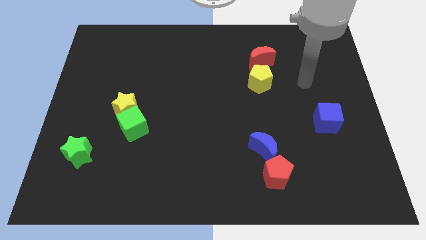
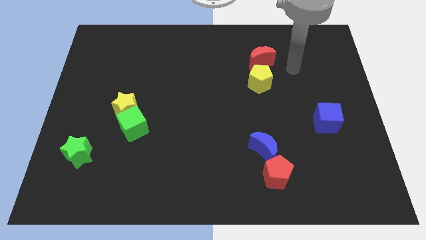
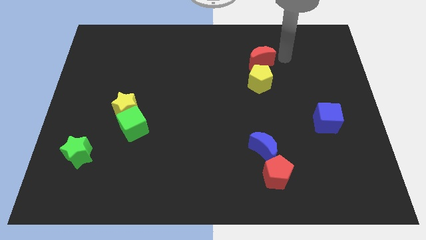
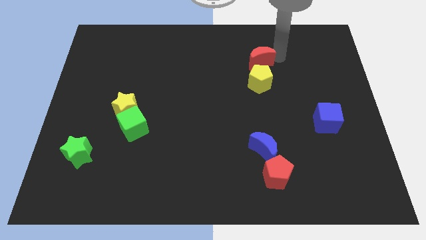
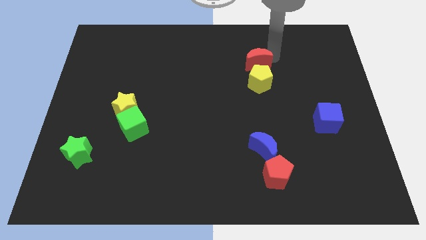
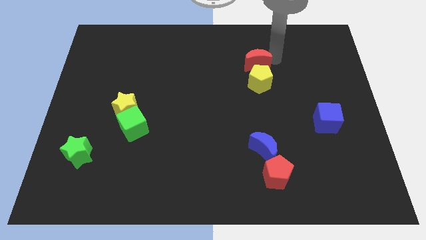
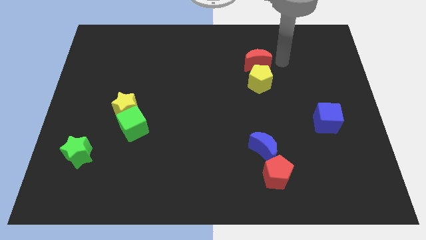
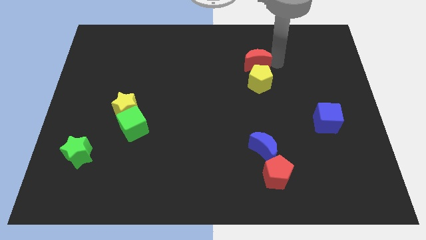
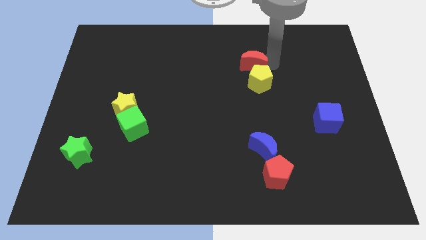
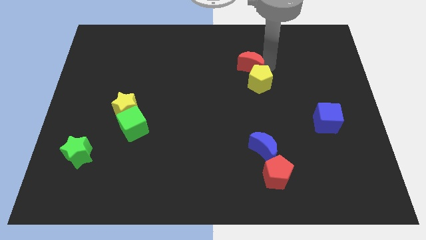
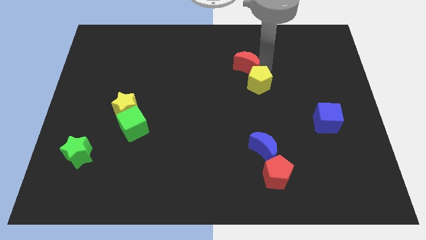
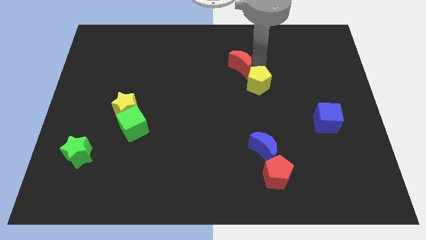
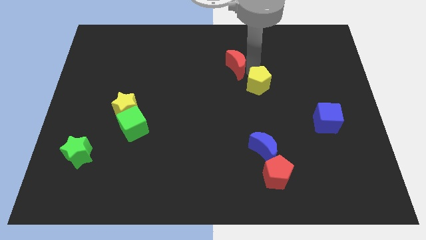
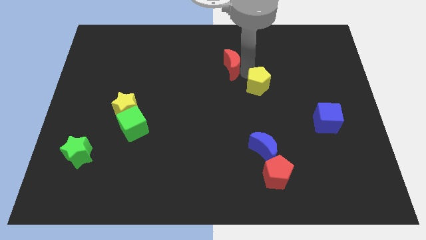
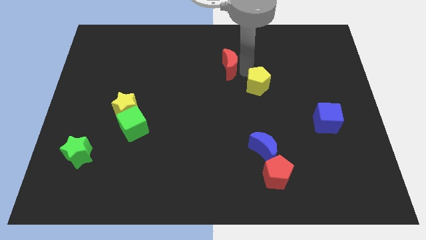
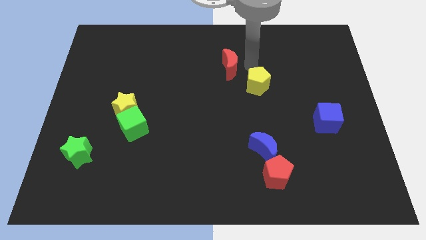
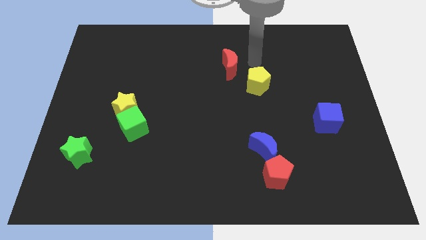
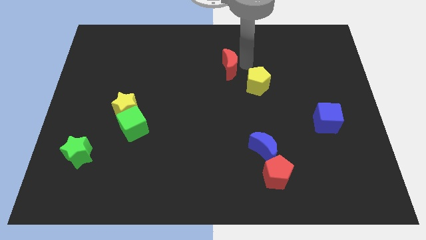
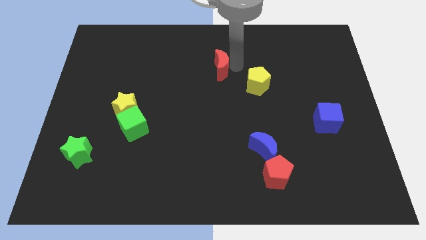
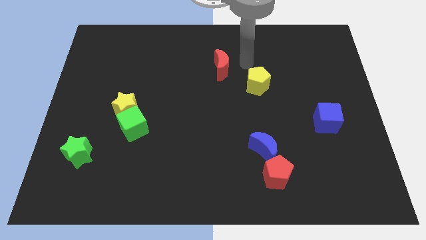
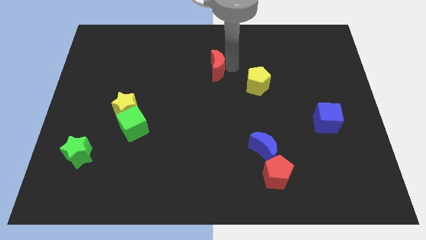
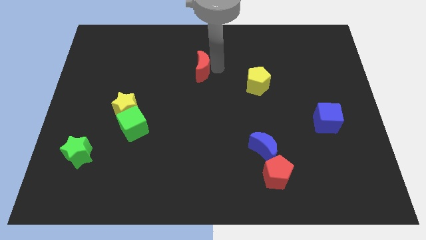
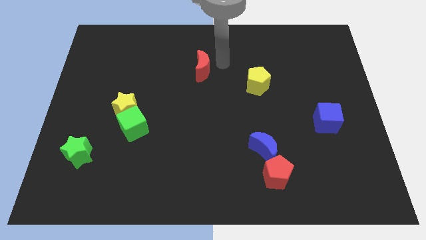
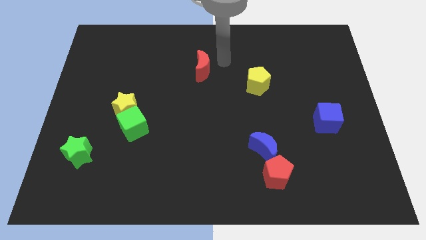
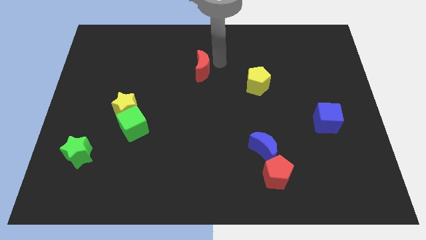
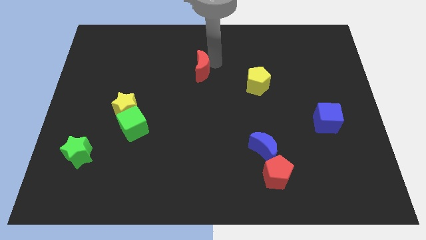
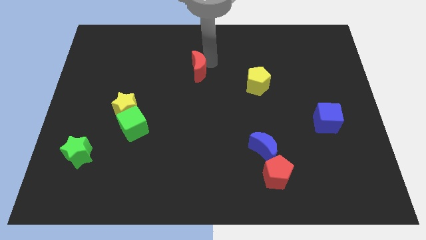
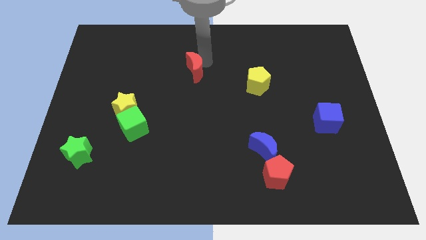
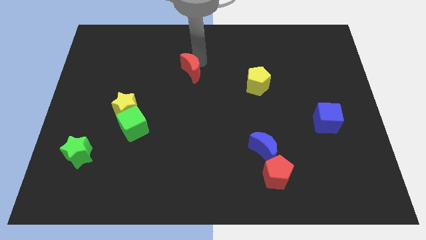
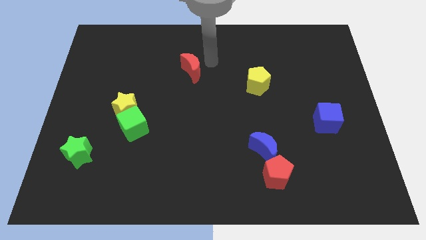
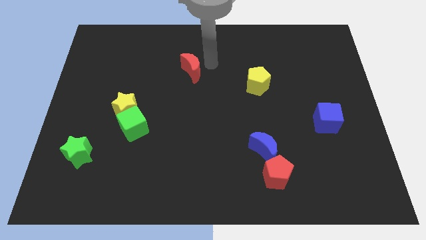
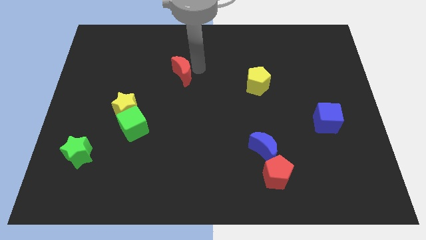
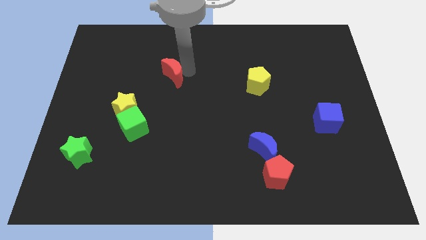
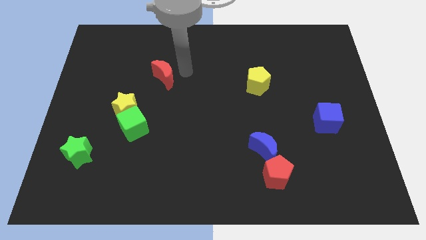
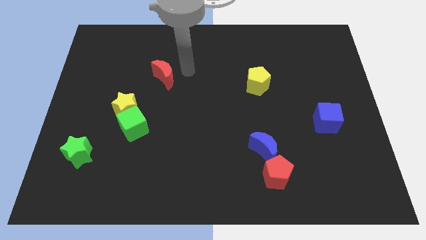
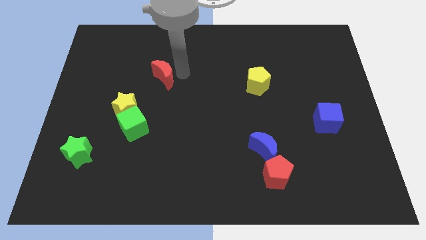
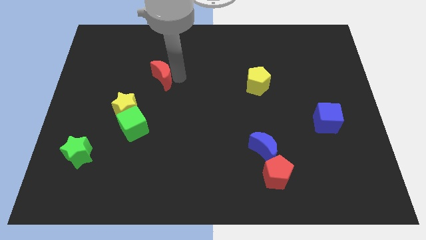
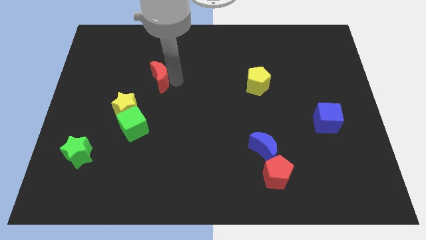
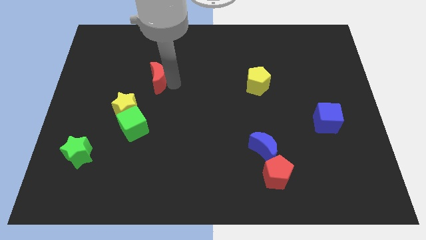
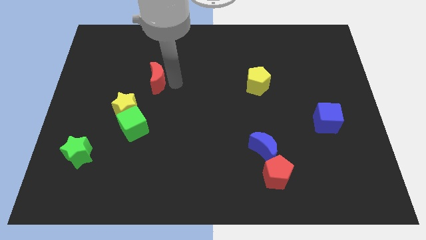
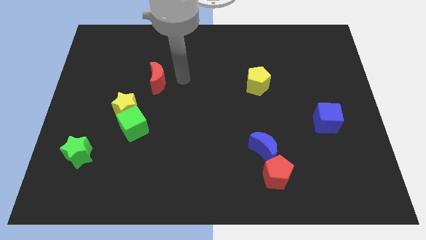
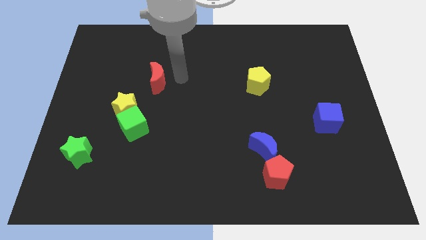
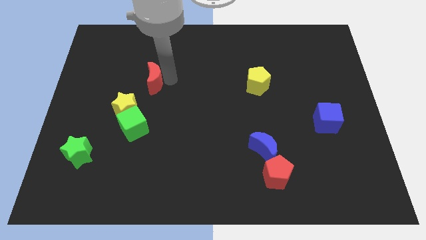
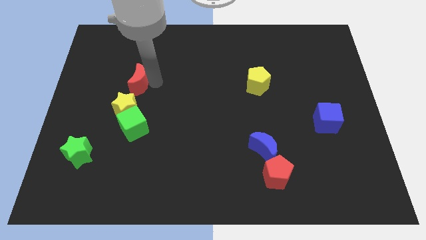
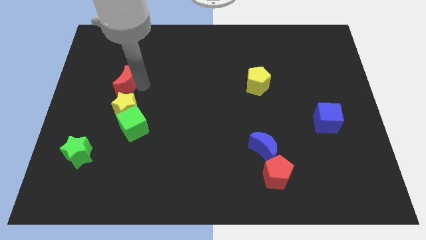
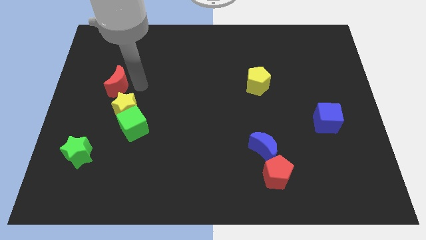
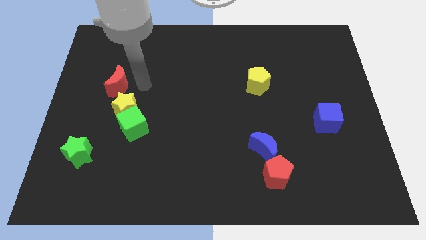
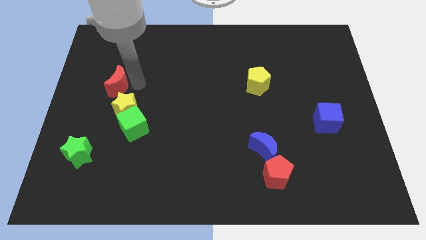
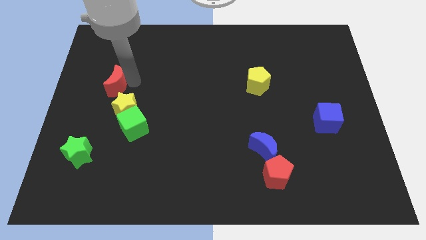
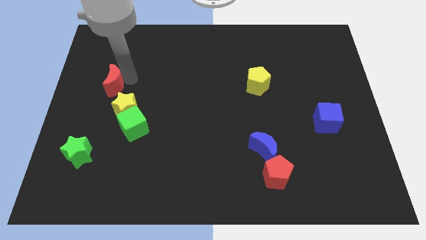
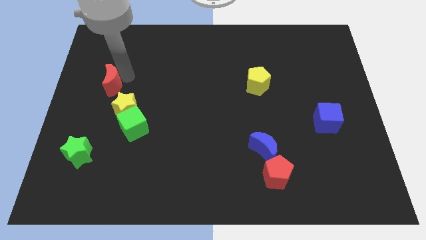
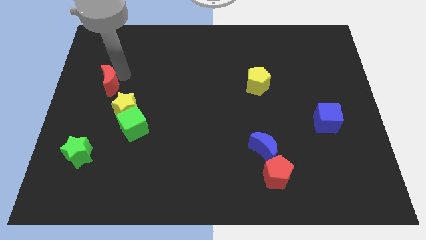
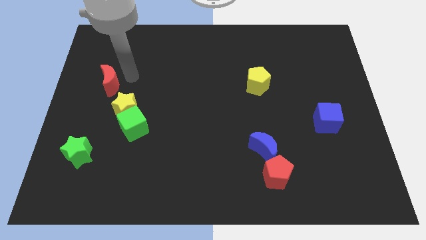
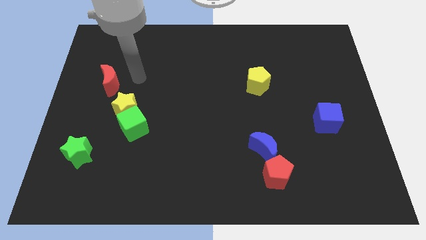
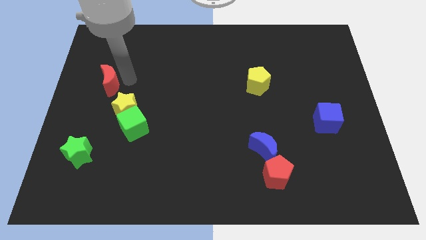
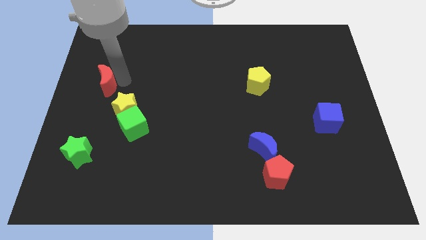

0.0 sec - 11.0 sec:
slide the red moon to the left side

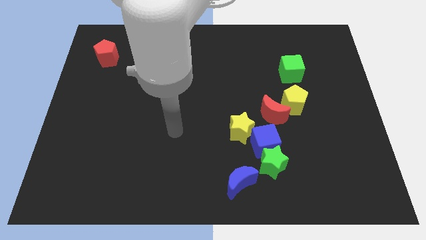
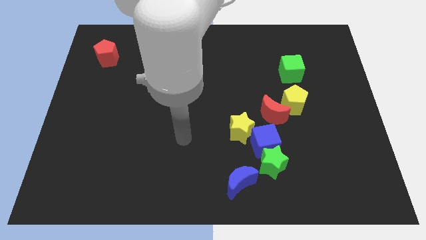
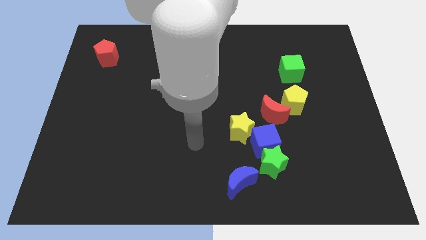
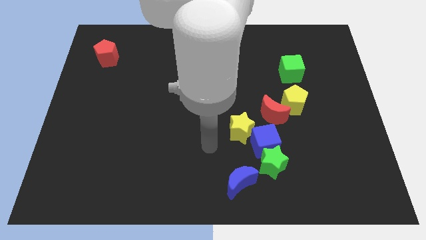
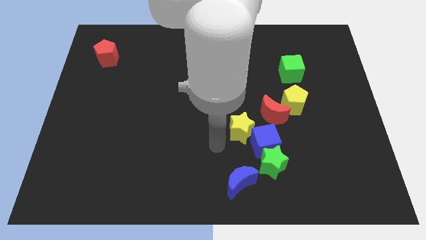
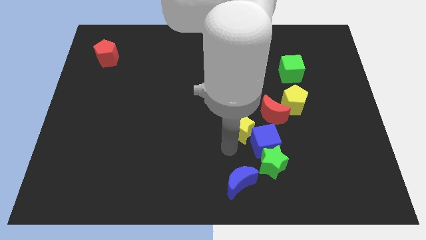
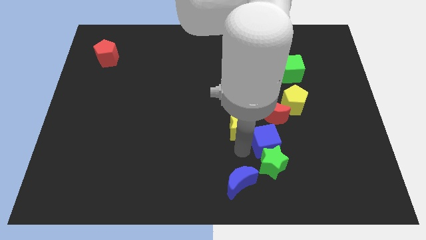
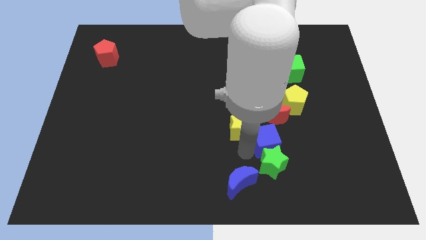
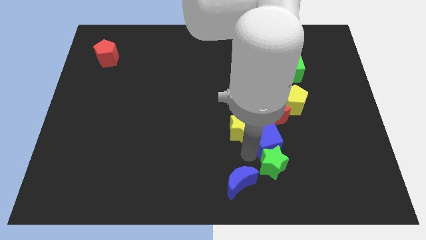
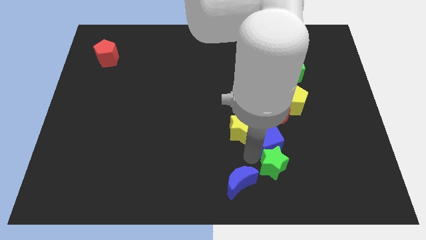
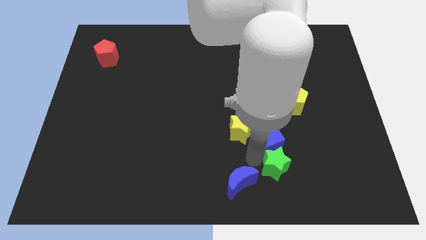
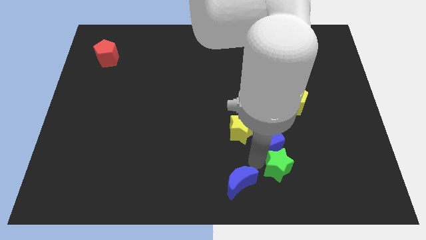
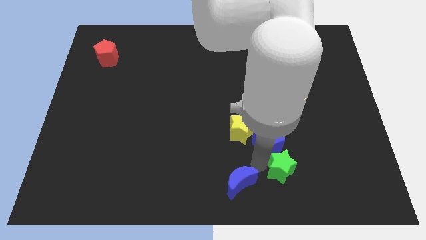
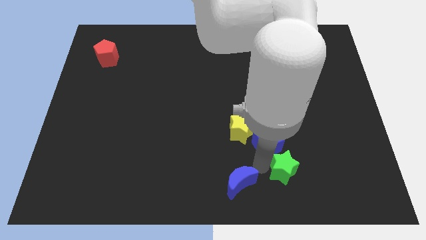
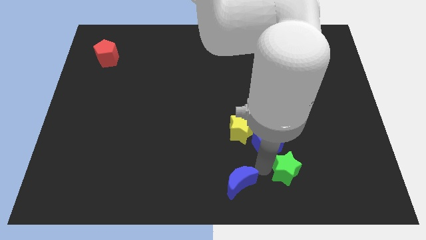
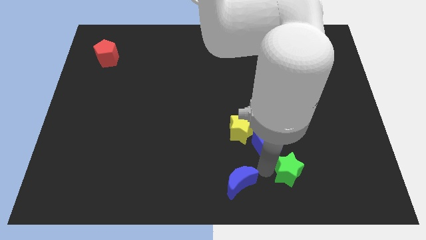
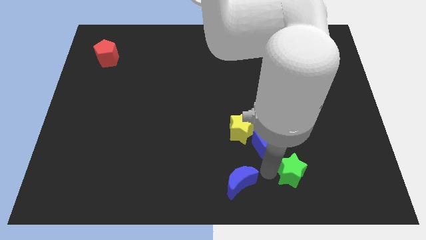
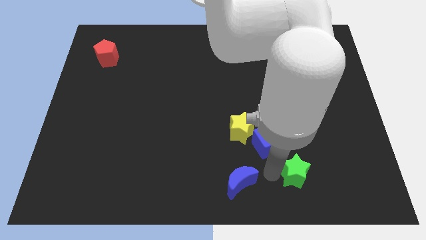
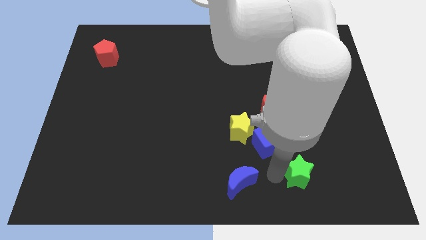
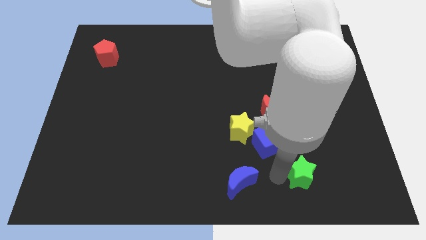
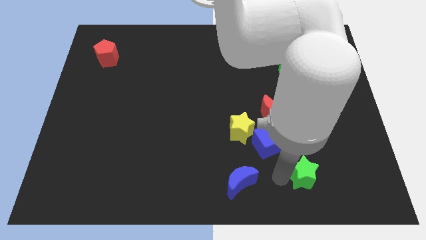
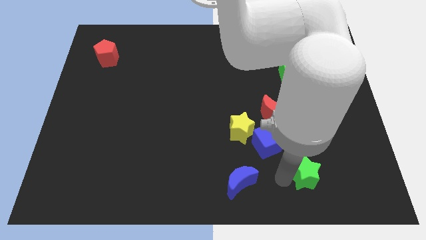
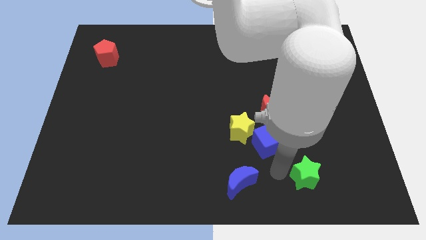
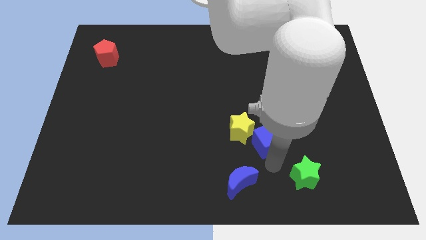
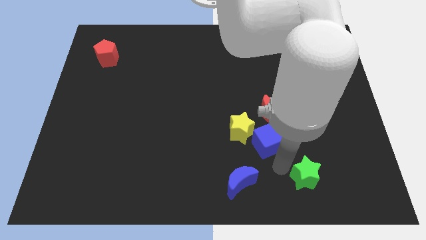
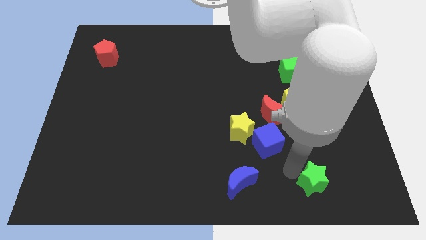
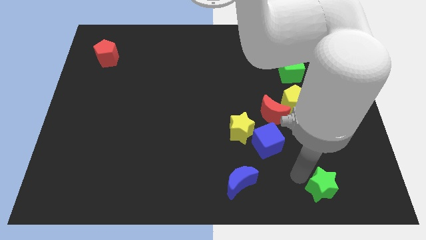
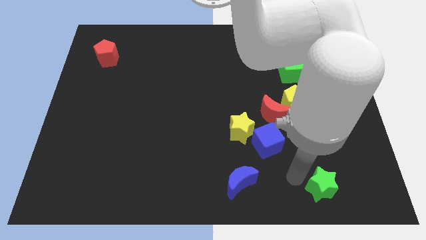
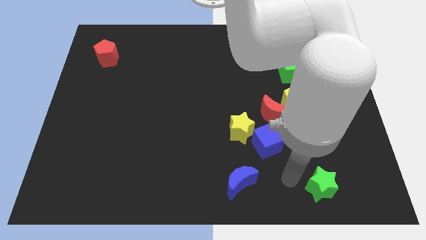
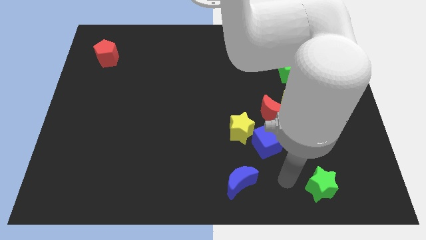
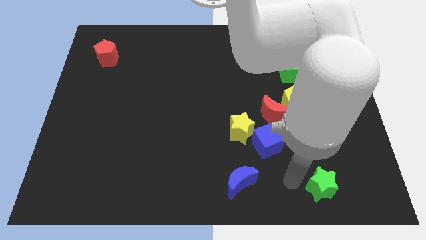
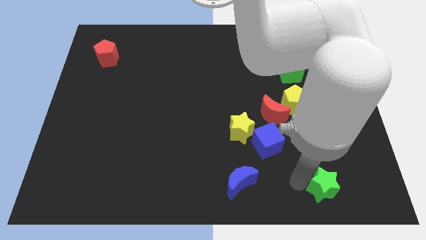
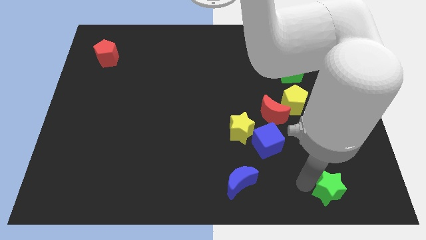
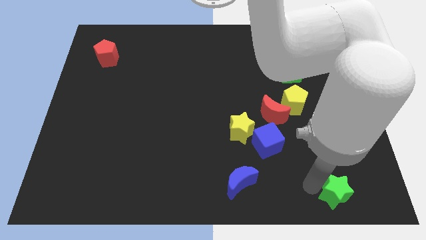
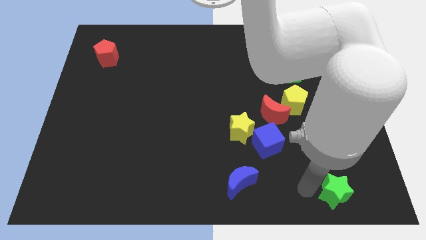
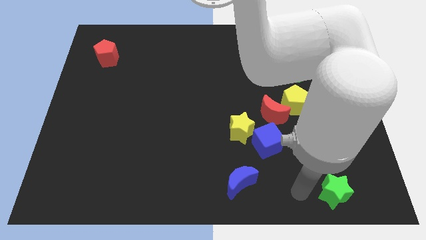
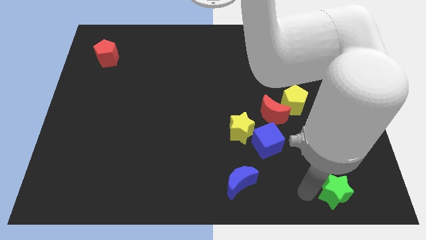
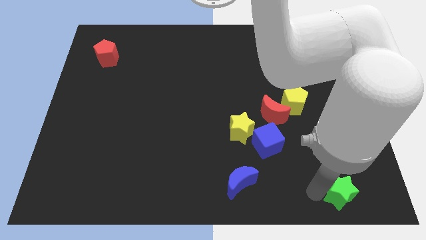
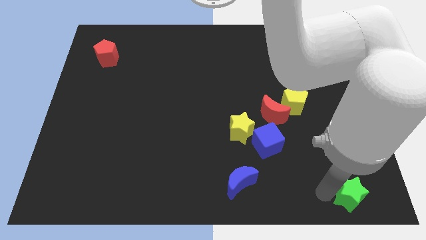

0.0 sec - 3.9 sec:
put the green star to the lower right corner
